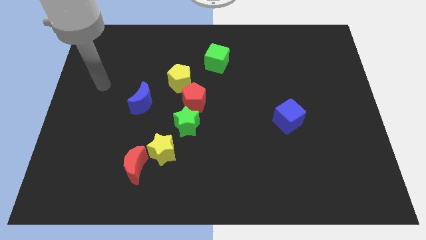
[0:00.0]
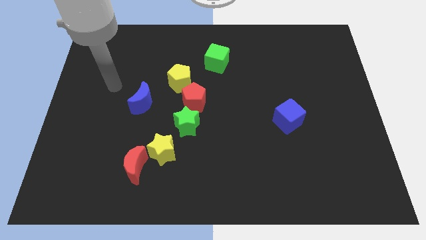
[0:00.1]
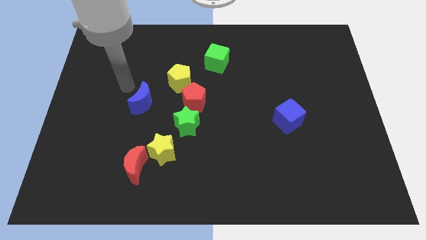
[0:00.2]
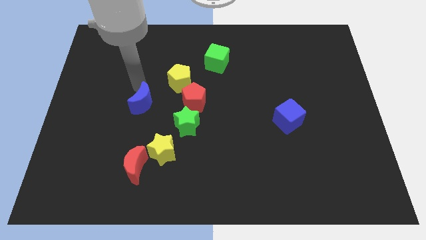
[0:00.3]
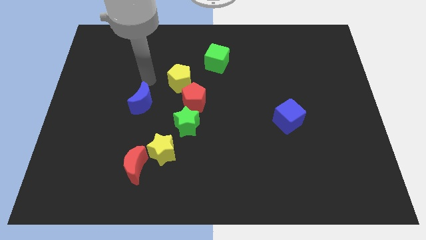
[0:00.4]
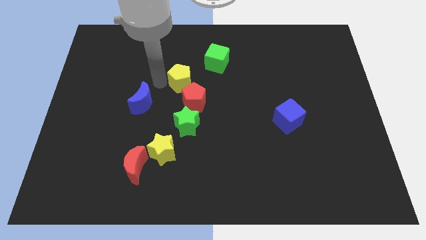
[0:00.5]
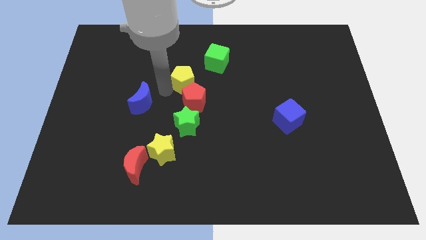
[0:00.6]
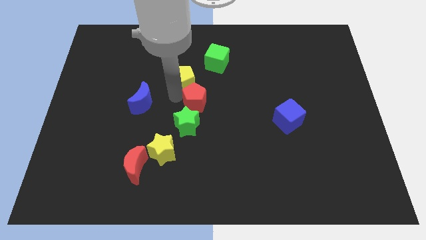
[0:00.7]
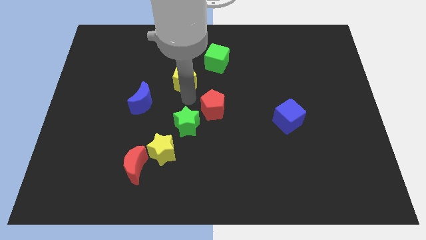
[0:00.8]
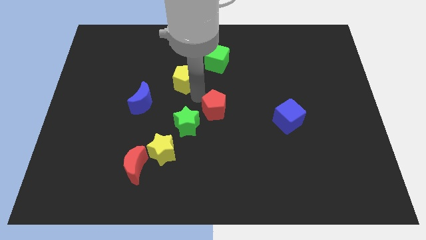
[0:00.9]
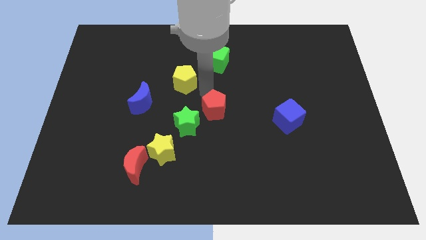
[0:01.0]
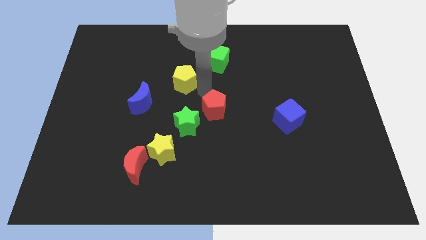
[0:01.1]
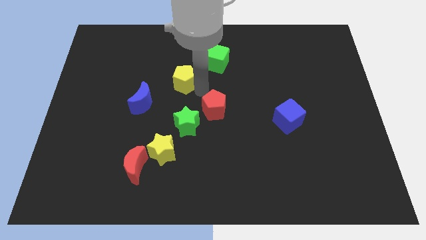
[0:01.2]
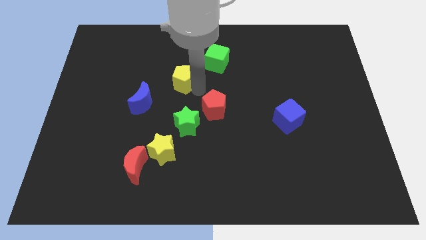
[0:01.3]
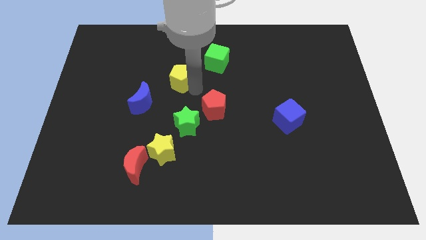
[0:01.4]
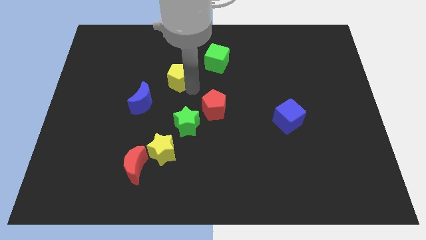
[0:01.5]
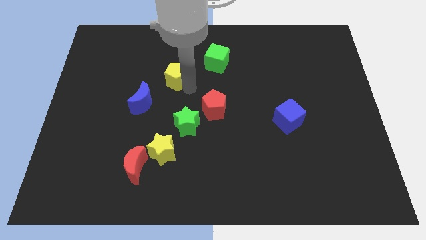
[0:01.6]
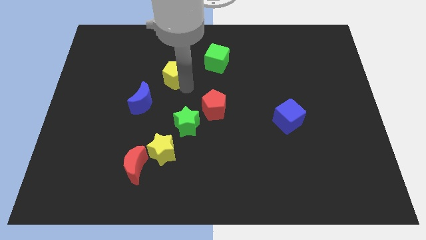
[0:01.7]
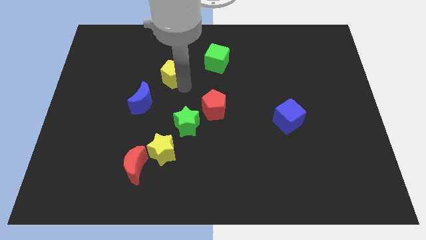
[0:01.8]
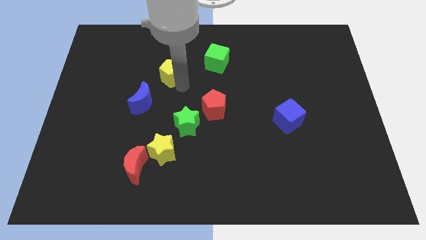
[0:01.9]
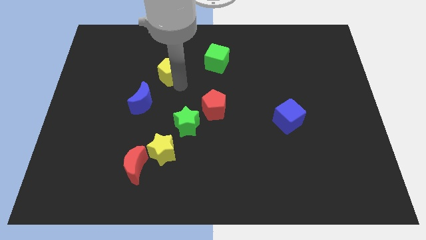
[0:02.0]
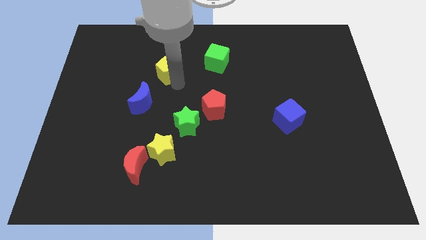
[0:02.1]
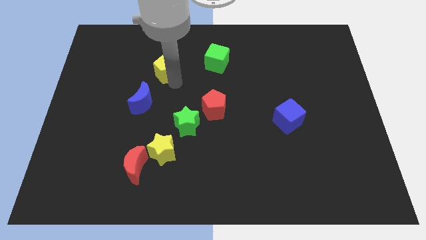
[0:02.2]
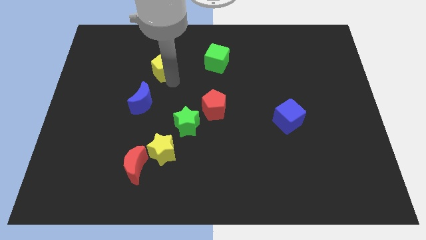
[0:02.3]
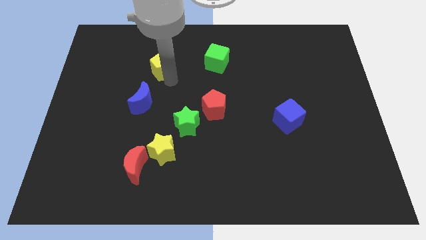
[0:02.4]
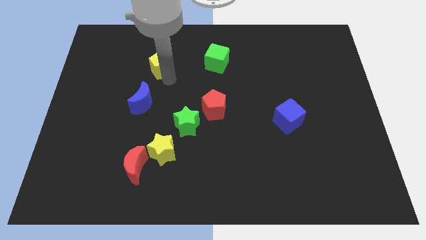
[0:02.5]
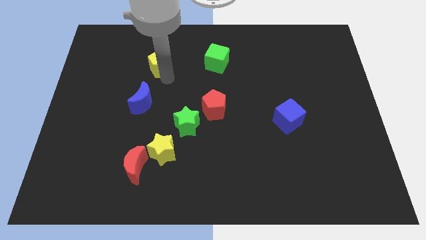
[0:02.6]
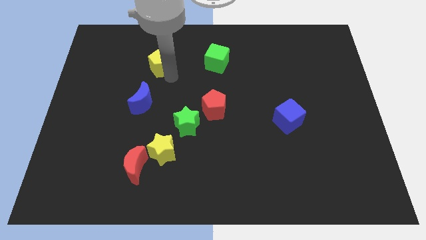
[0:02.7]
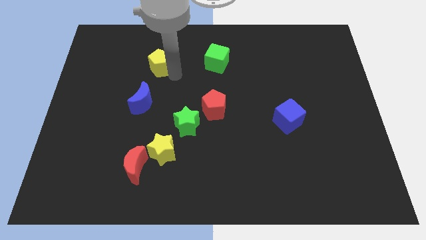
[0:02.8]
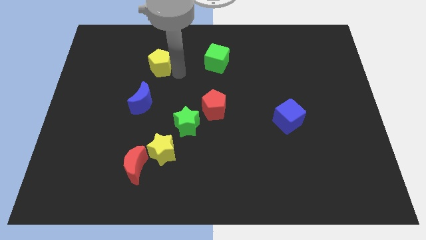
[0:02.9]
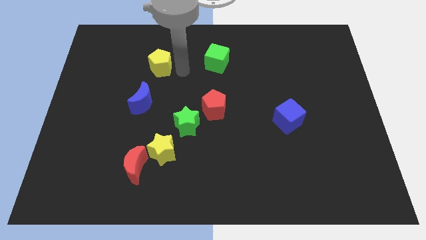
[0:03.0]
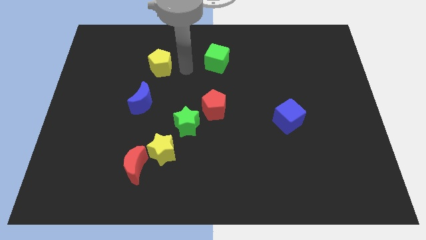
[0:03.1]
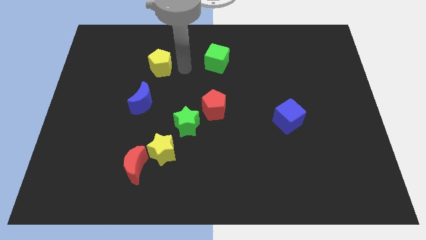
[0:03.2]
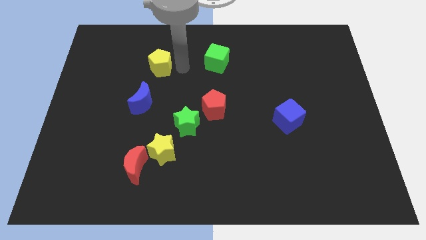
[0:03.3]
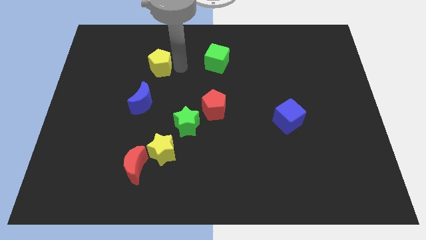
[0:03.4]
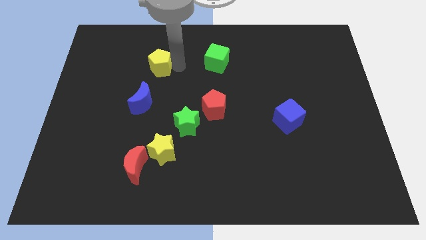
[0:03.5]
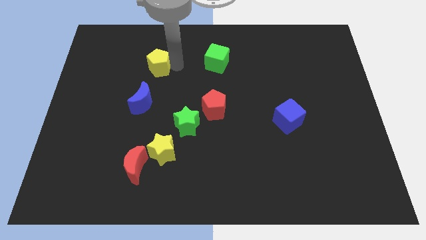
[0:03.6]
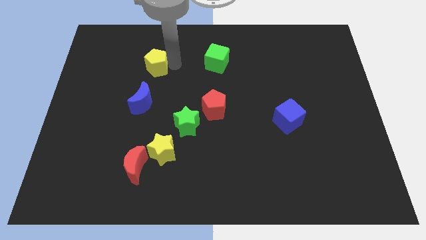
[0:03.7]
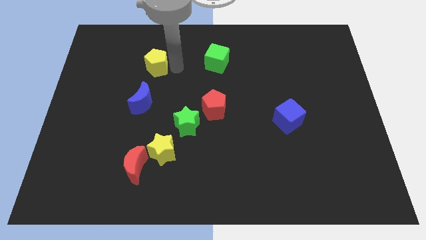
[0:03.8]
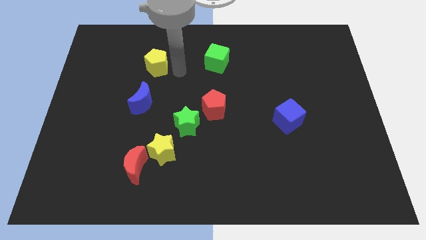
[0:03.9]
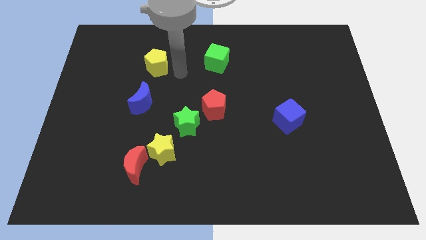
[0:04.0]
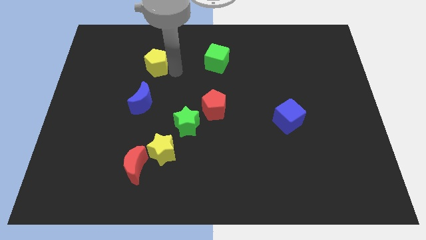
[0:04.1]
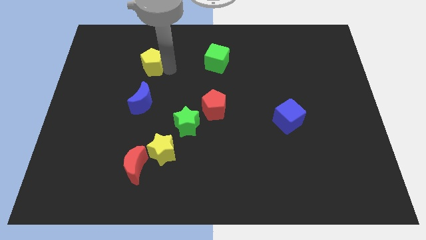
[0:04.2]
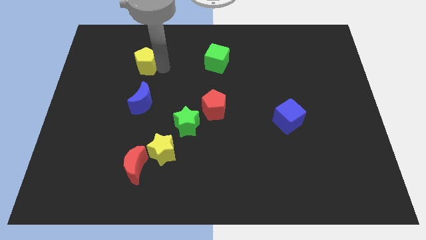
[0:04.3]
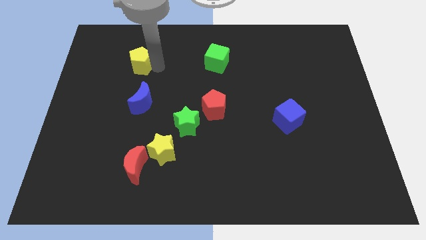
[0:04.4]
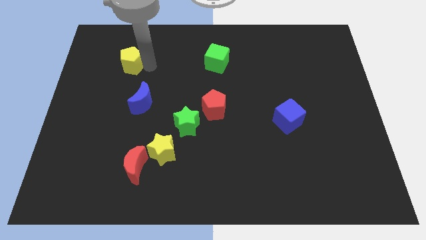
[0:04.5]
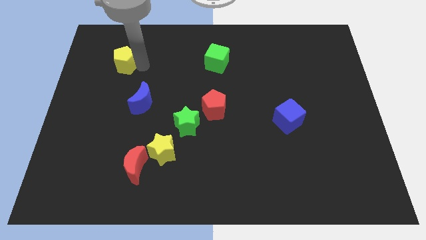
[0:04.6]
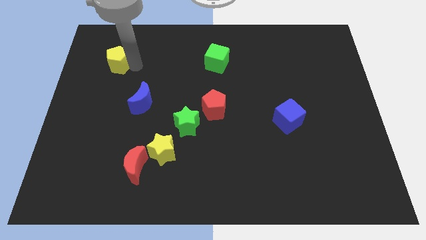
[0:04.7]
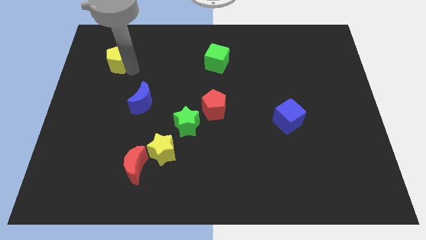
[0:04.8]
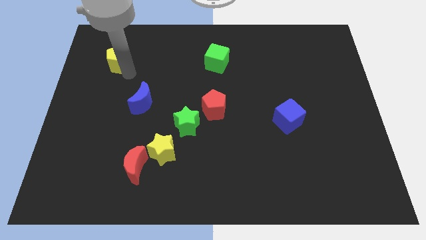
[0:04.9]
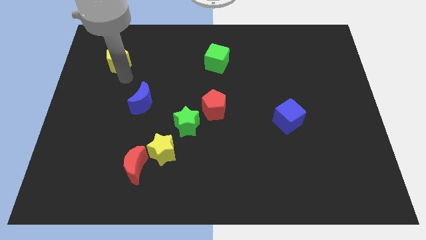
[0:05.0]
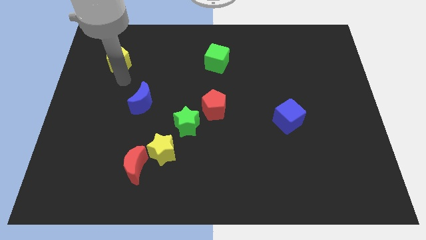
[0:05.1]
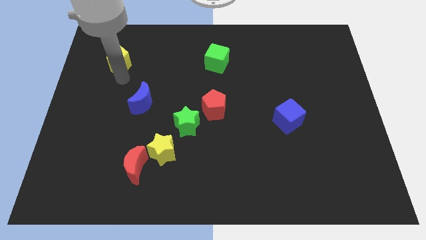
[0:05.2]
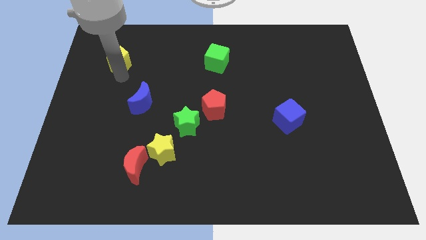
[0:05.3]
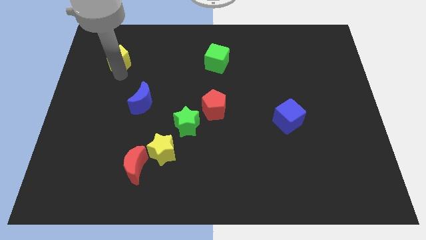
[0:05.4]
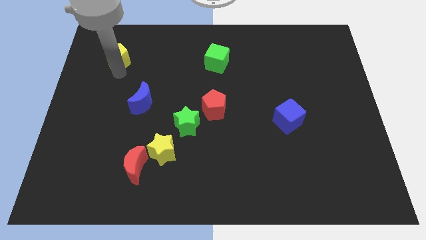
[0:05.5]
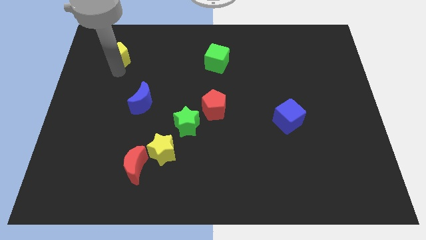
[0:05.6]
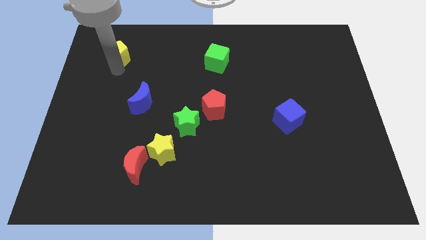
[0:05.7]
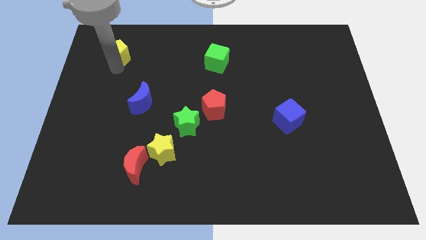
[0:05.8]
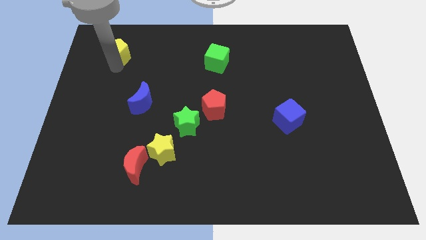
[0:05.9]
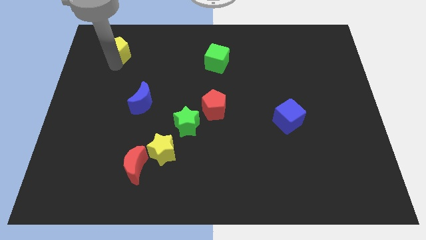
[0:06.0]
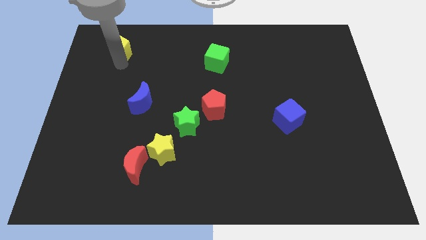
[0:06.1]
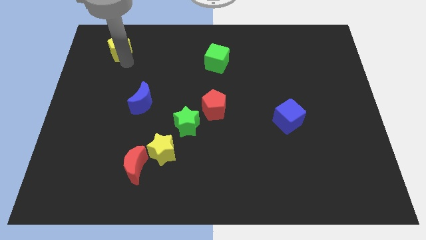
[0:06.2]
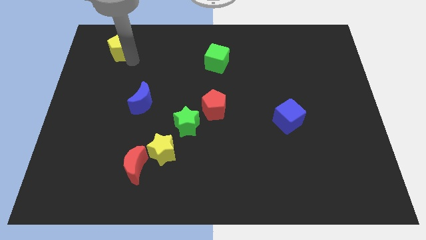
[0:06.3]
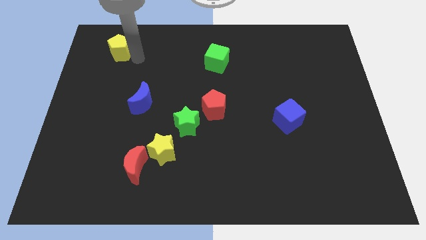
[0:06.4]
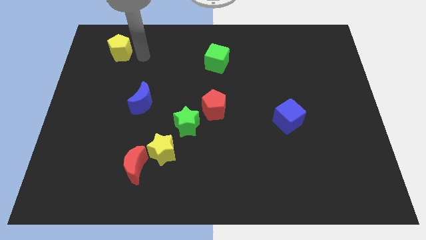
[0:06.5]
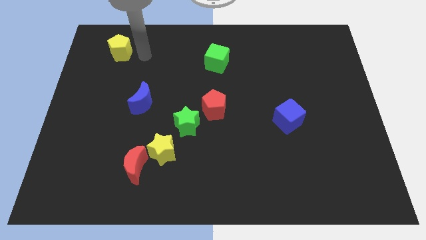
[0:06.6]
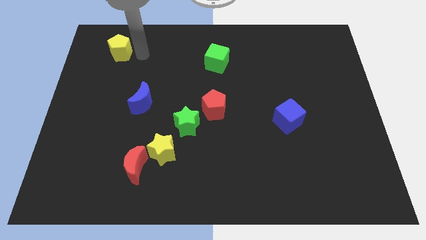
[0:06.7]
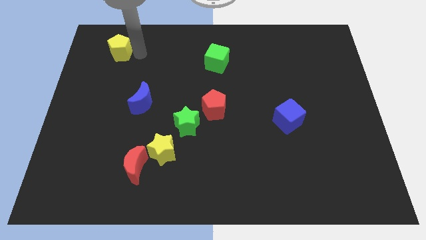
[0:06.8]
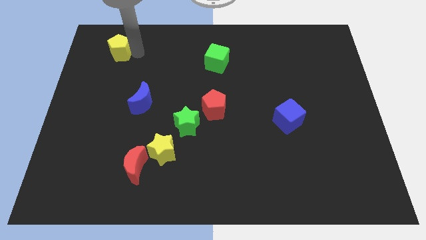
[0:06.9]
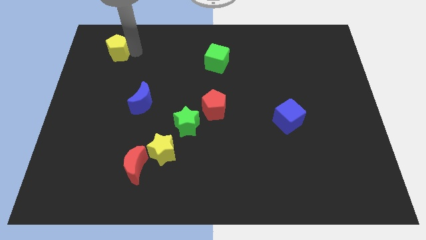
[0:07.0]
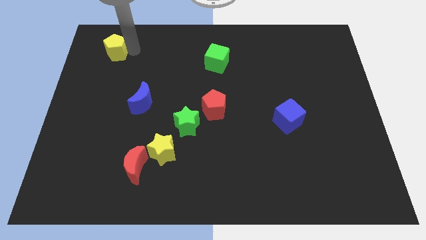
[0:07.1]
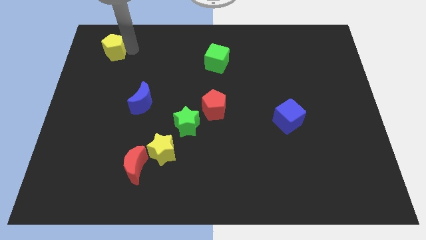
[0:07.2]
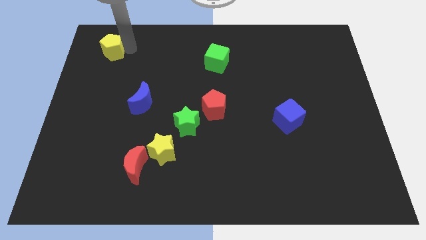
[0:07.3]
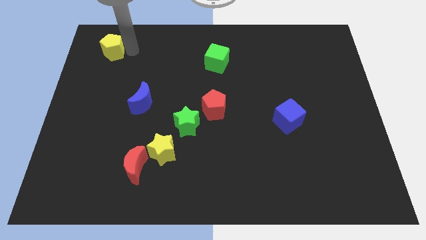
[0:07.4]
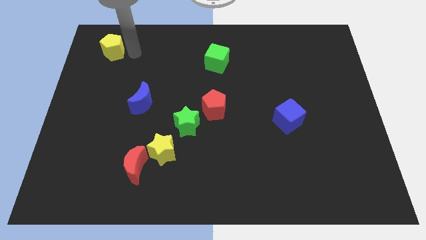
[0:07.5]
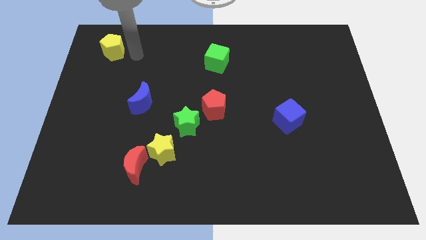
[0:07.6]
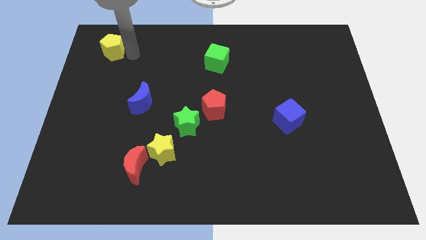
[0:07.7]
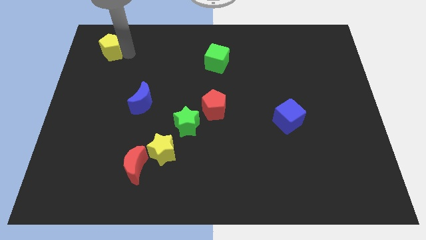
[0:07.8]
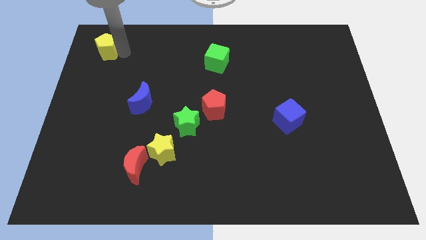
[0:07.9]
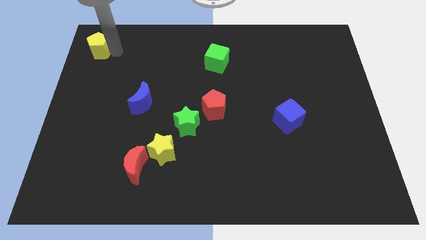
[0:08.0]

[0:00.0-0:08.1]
move the yellow pentagon to the upper left corner
